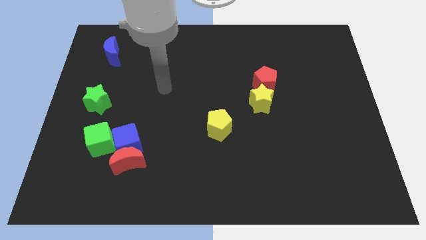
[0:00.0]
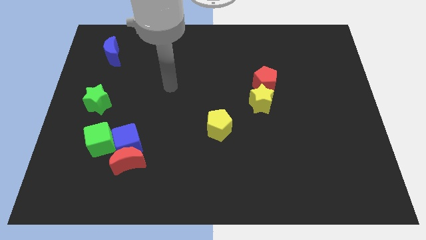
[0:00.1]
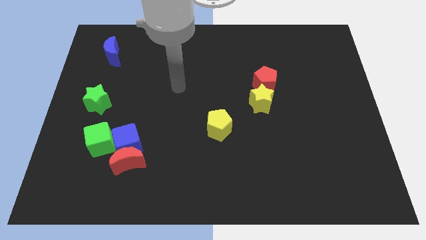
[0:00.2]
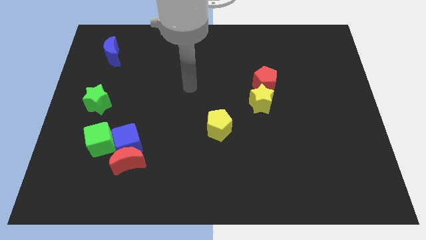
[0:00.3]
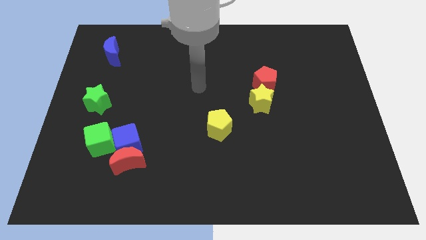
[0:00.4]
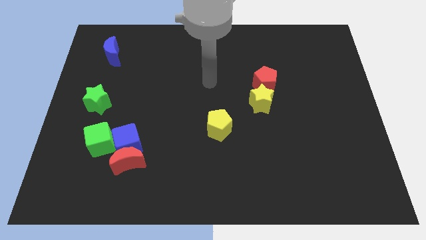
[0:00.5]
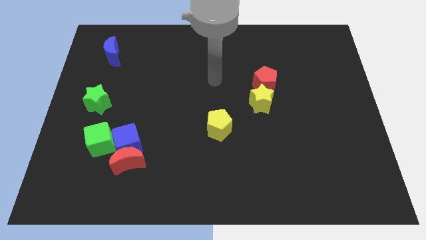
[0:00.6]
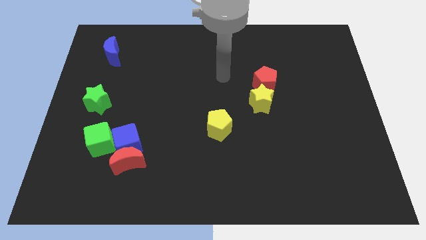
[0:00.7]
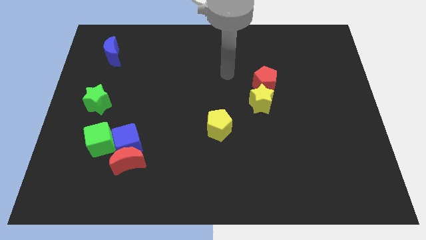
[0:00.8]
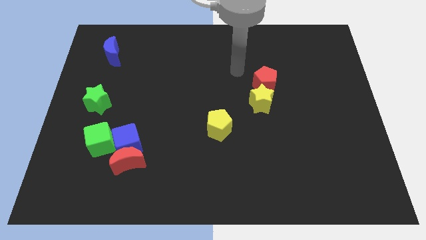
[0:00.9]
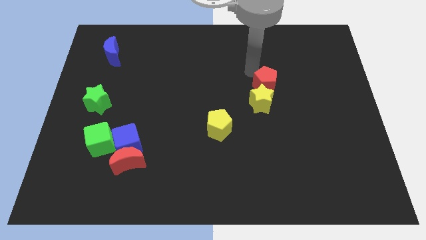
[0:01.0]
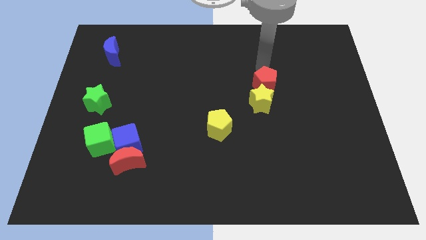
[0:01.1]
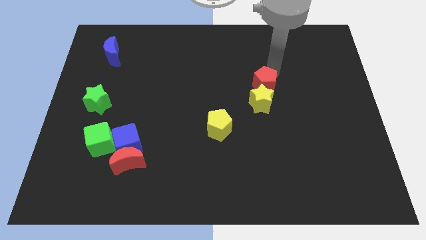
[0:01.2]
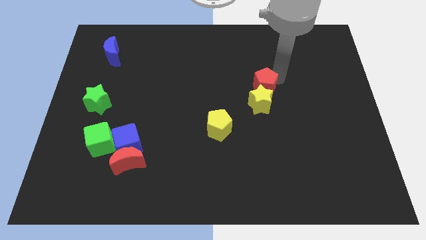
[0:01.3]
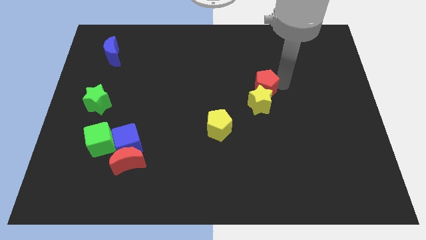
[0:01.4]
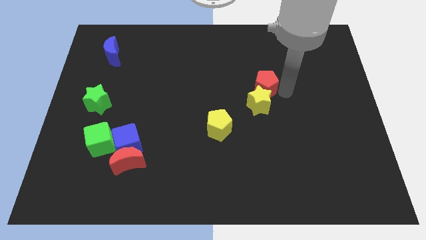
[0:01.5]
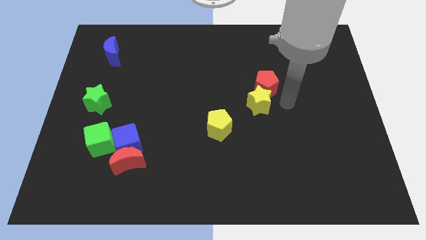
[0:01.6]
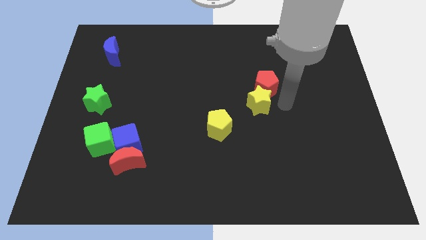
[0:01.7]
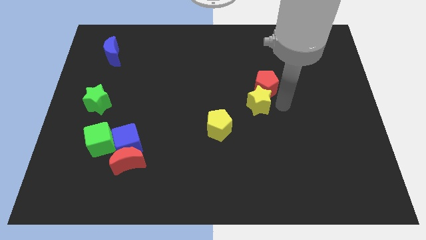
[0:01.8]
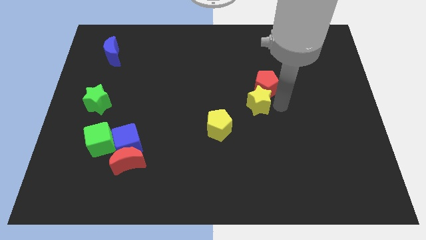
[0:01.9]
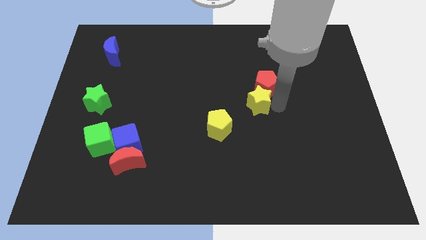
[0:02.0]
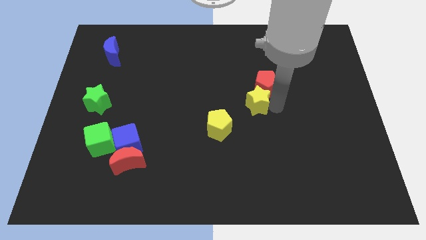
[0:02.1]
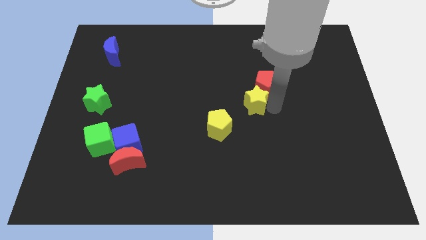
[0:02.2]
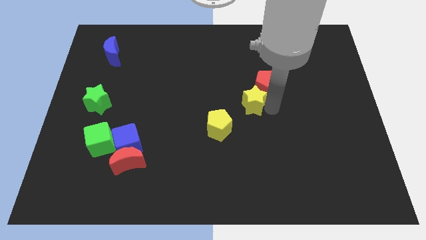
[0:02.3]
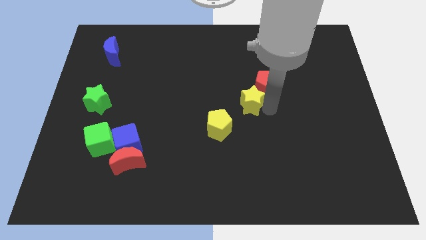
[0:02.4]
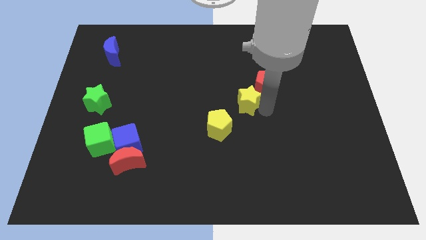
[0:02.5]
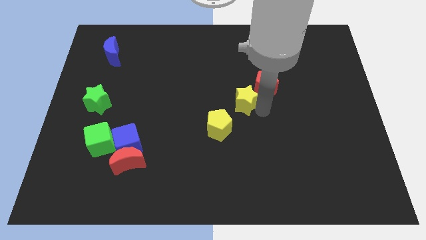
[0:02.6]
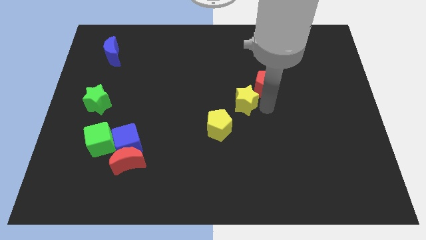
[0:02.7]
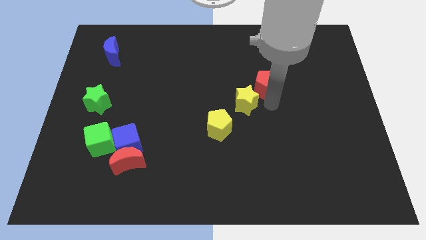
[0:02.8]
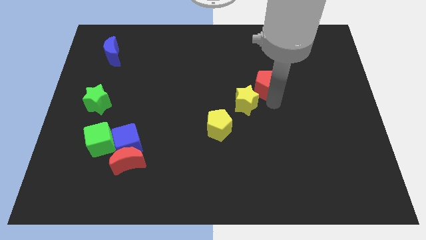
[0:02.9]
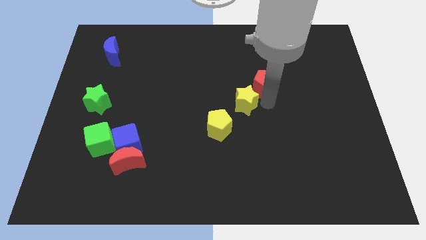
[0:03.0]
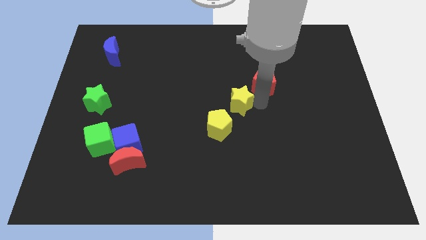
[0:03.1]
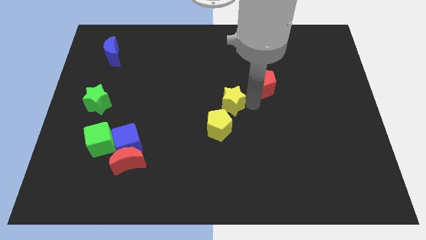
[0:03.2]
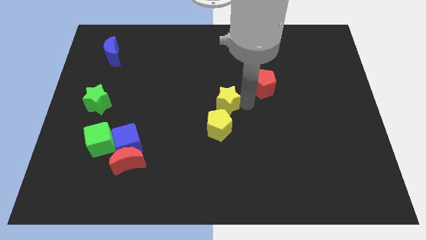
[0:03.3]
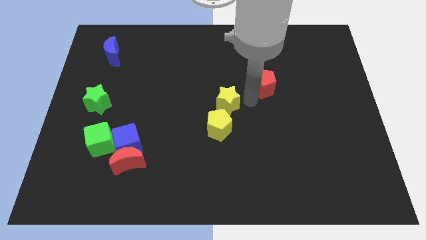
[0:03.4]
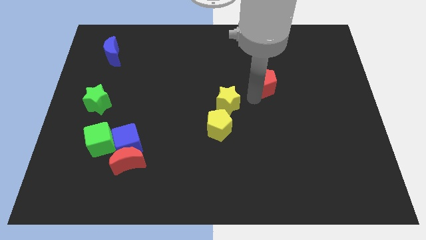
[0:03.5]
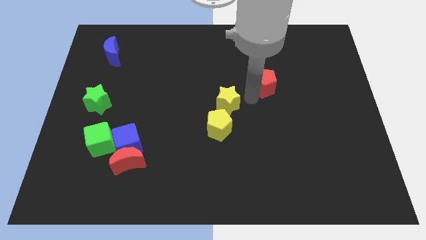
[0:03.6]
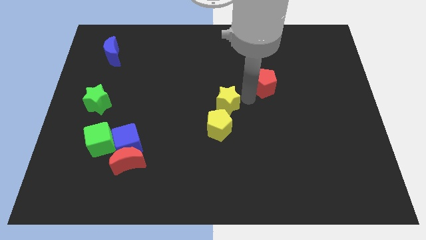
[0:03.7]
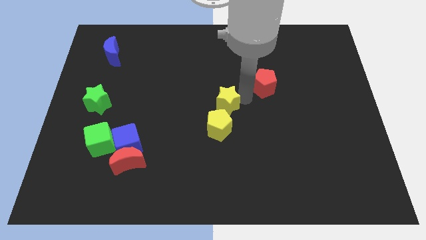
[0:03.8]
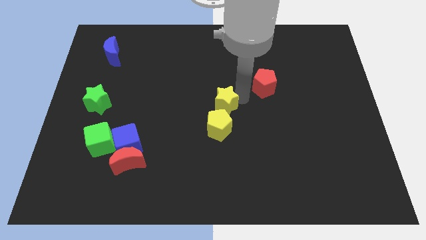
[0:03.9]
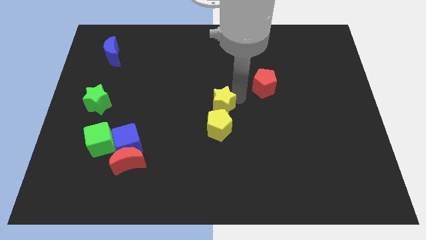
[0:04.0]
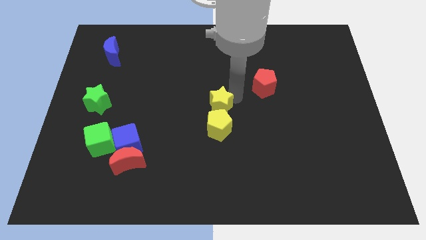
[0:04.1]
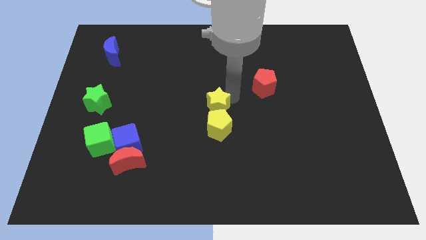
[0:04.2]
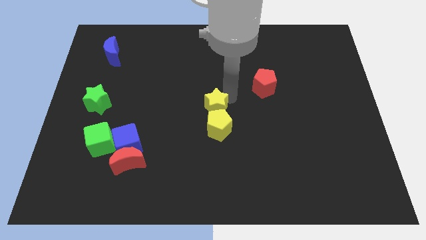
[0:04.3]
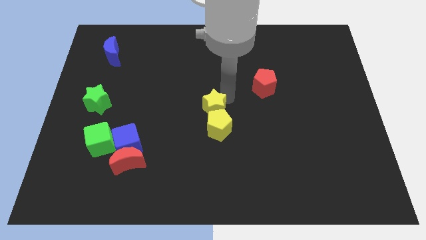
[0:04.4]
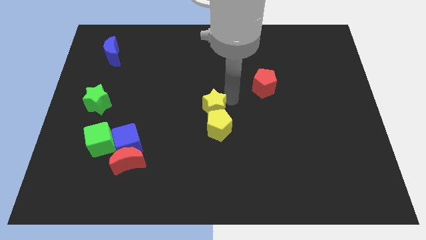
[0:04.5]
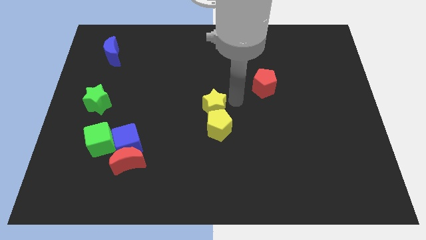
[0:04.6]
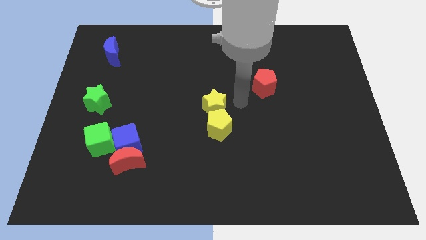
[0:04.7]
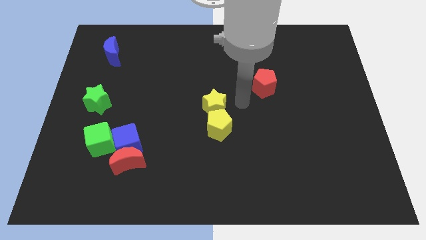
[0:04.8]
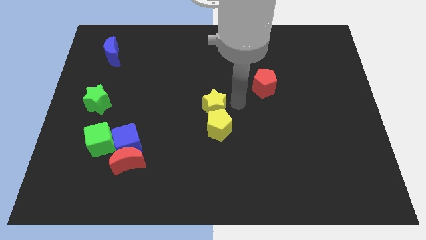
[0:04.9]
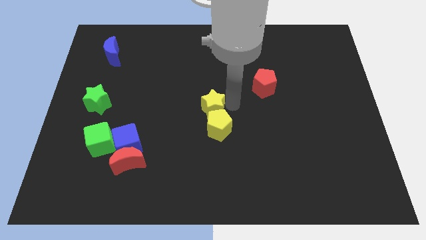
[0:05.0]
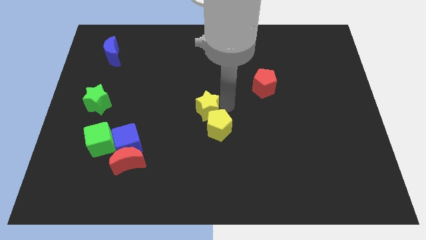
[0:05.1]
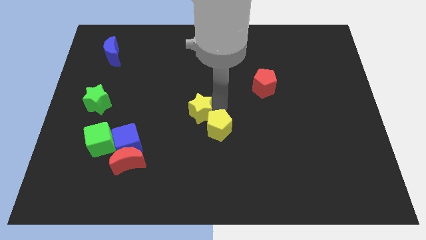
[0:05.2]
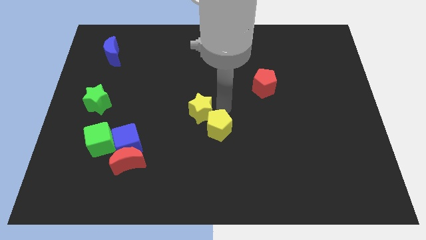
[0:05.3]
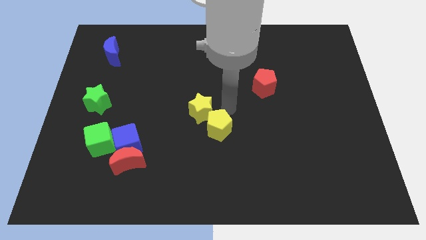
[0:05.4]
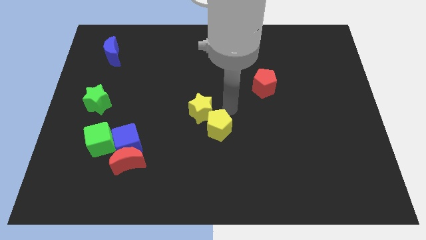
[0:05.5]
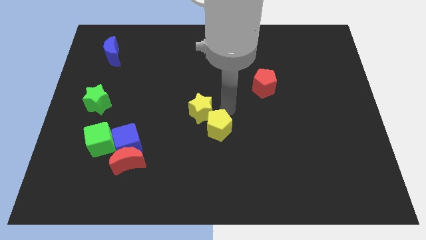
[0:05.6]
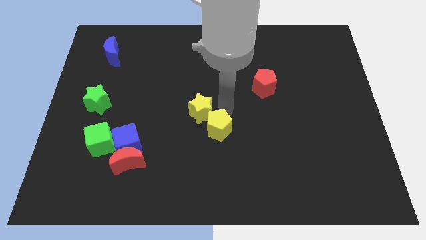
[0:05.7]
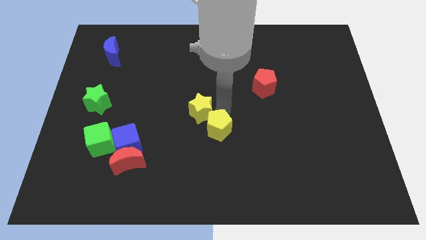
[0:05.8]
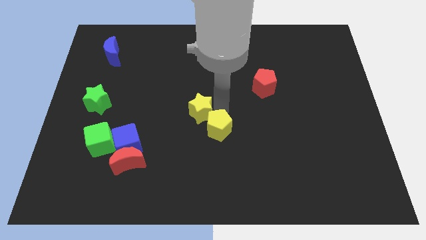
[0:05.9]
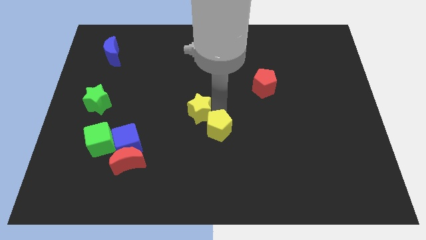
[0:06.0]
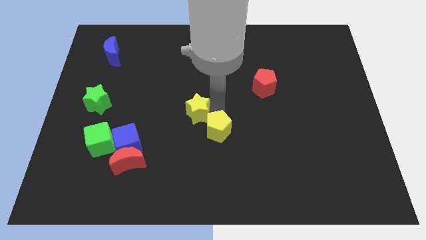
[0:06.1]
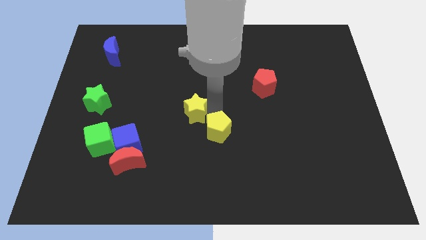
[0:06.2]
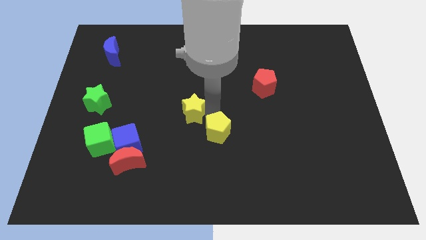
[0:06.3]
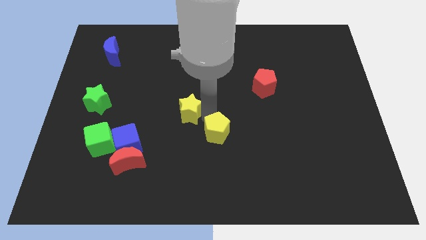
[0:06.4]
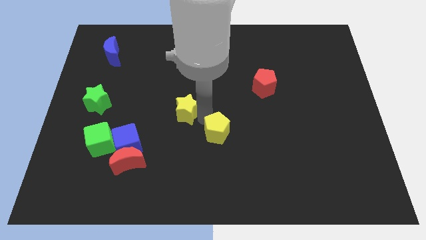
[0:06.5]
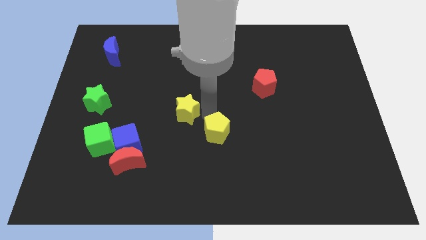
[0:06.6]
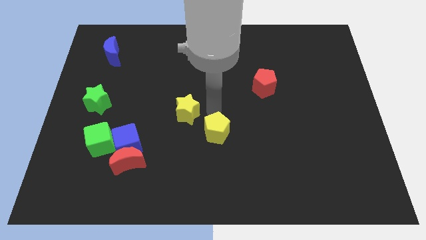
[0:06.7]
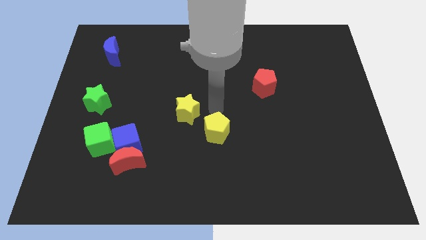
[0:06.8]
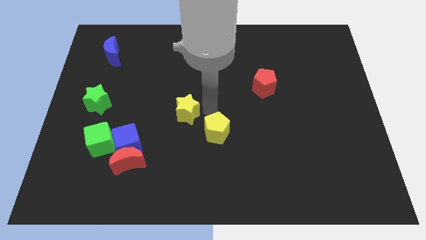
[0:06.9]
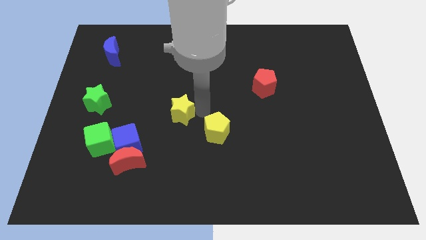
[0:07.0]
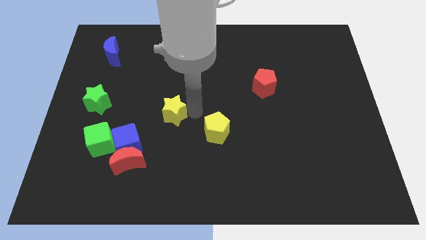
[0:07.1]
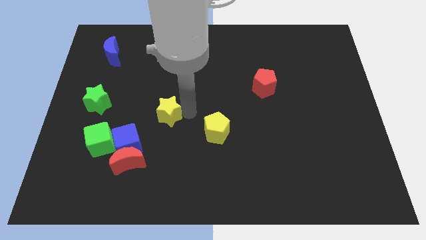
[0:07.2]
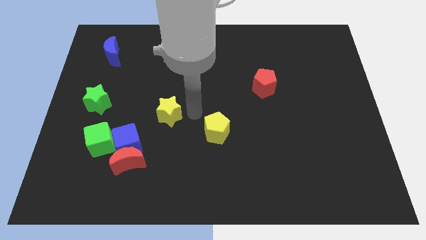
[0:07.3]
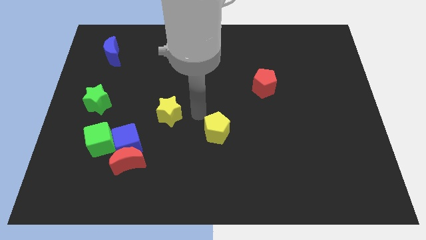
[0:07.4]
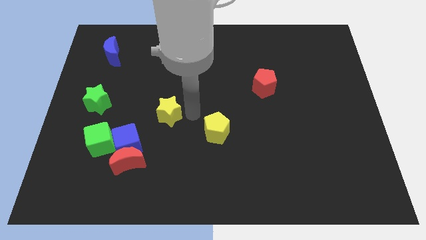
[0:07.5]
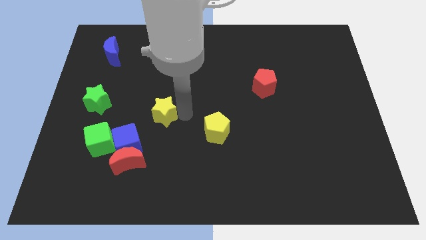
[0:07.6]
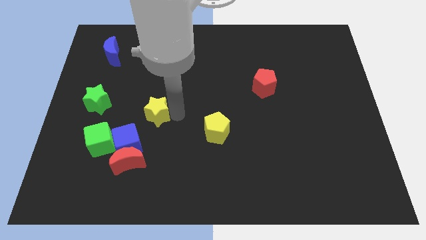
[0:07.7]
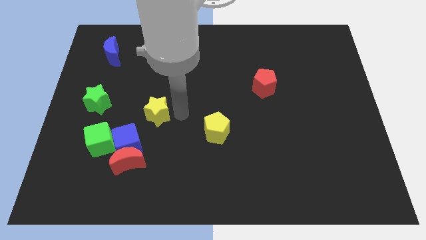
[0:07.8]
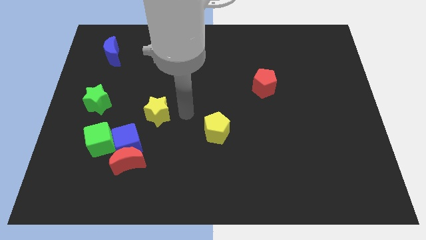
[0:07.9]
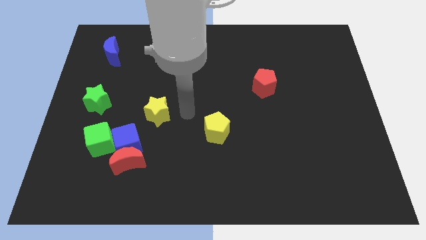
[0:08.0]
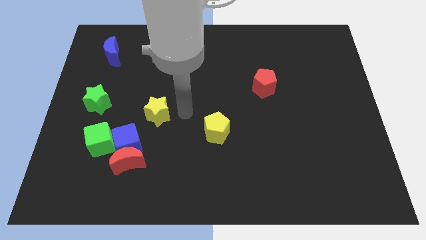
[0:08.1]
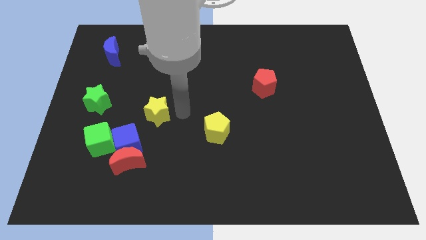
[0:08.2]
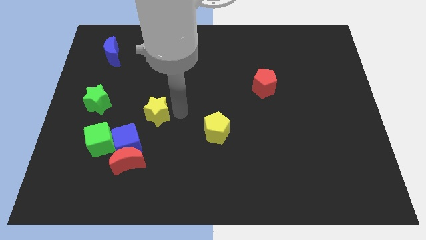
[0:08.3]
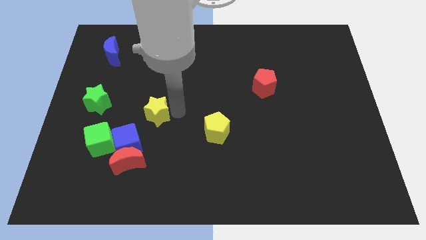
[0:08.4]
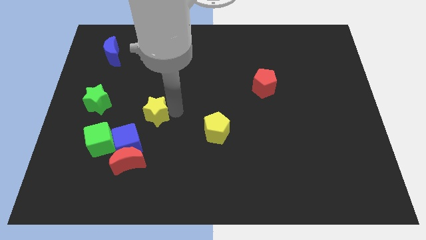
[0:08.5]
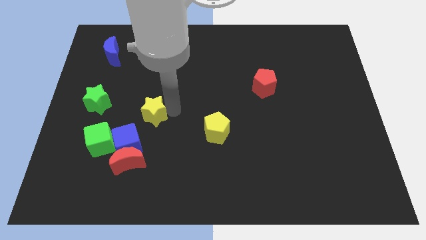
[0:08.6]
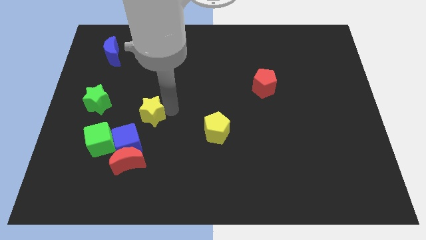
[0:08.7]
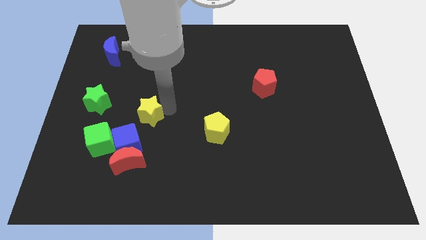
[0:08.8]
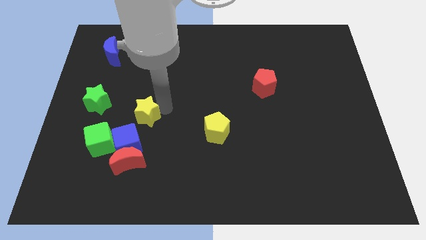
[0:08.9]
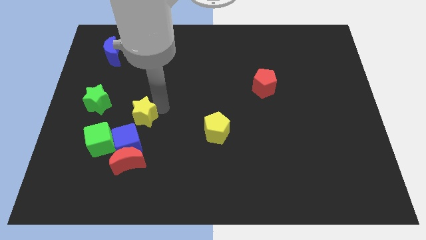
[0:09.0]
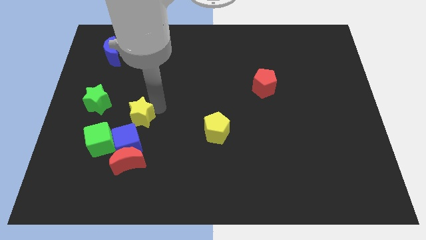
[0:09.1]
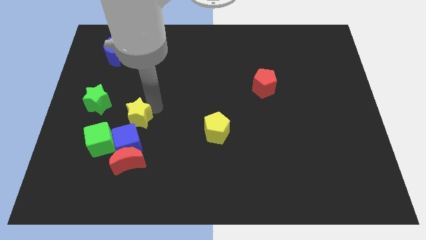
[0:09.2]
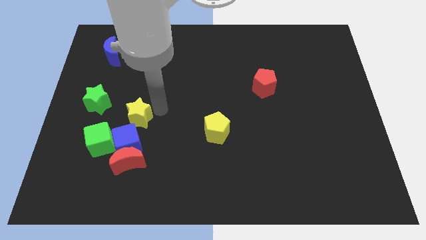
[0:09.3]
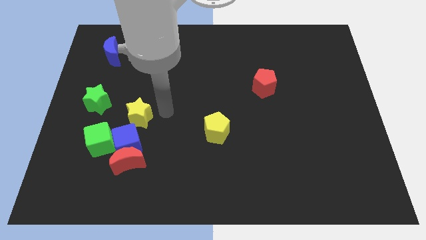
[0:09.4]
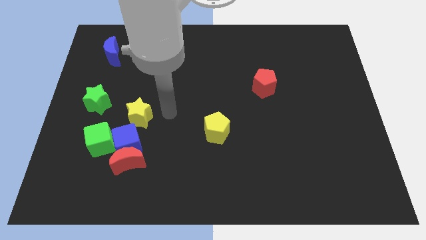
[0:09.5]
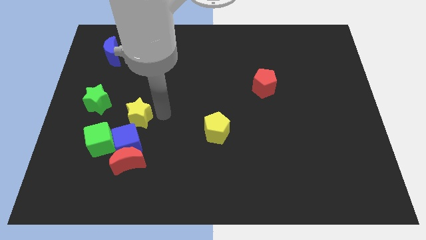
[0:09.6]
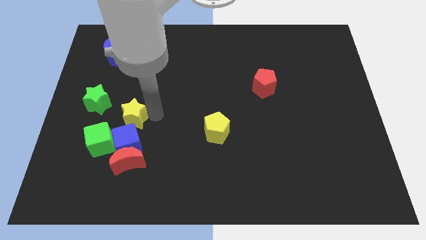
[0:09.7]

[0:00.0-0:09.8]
move the yellow star diagonally down and to the right of the green star
